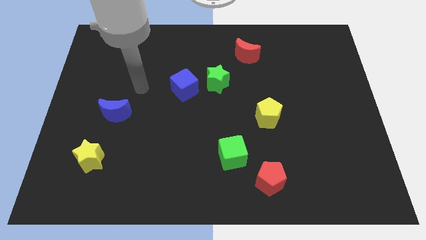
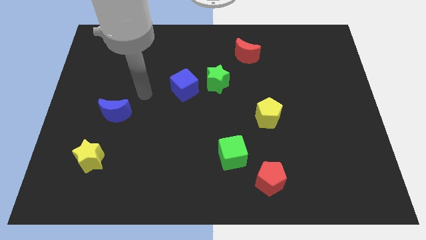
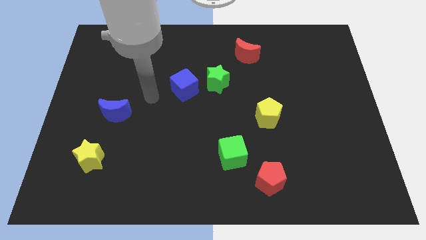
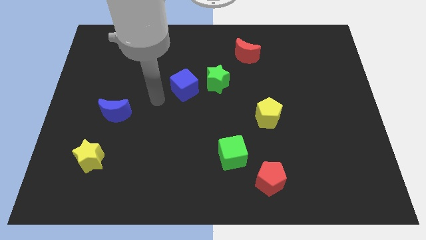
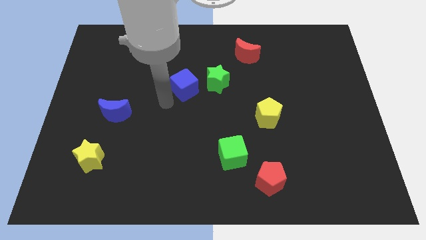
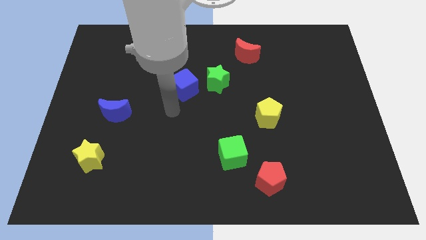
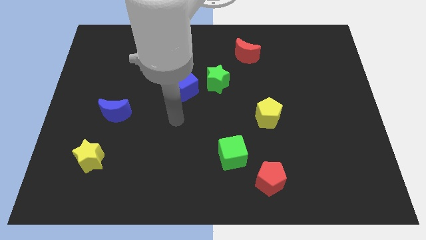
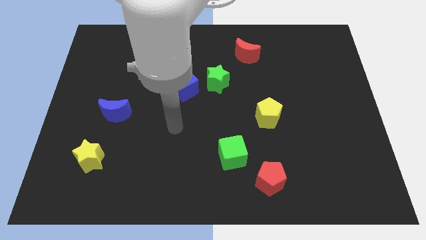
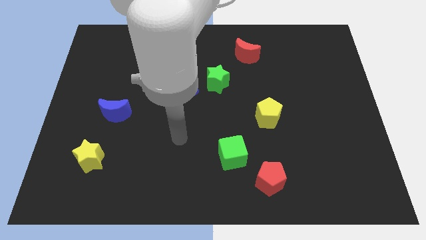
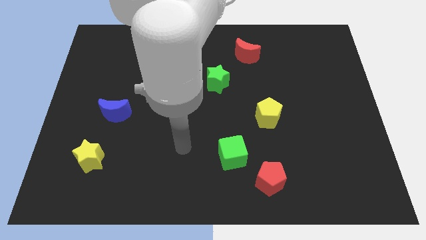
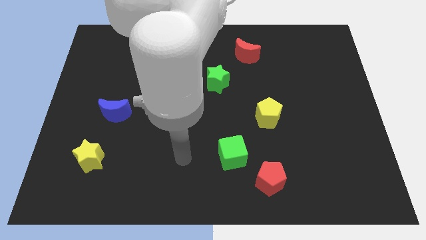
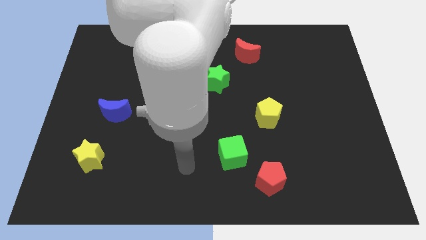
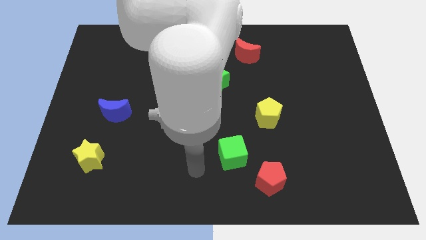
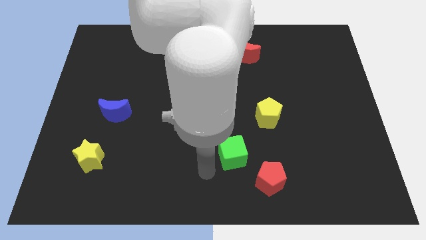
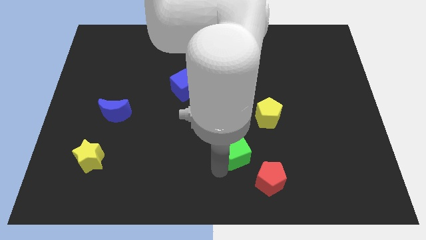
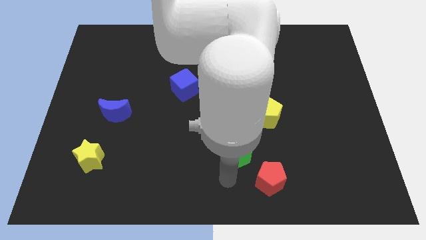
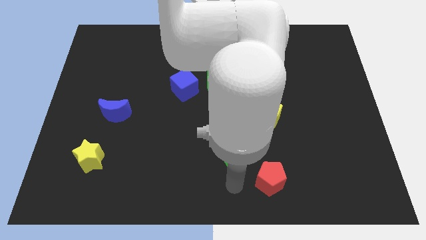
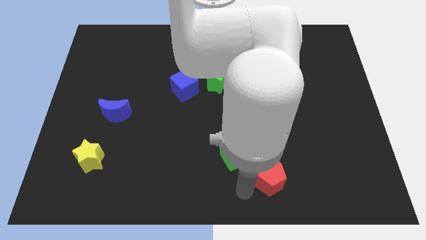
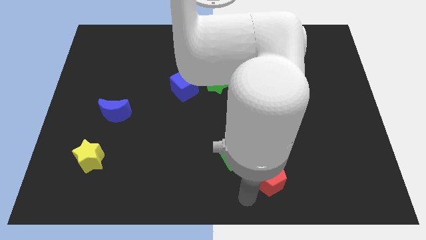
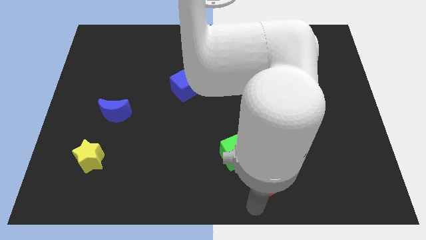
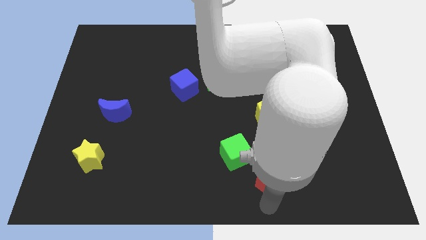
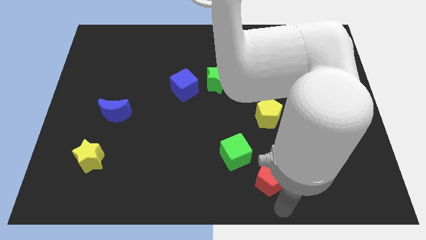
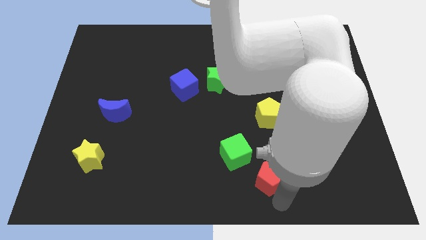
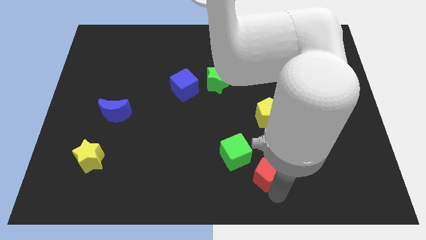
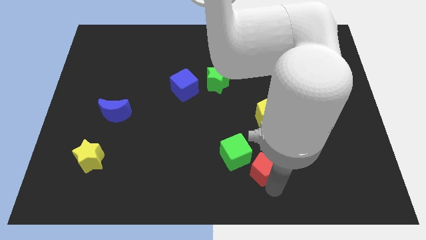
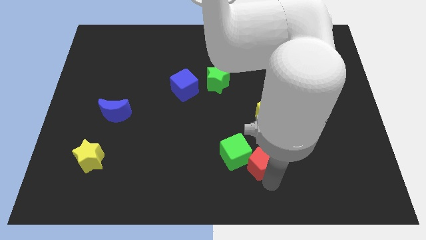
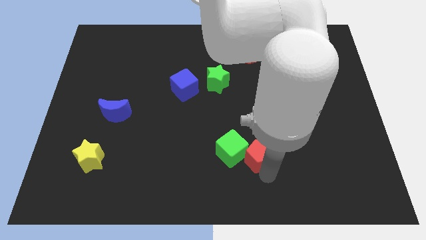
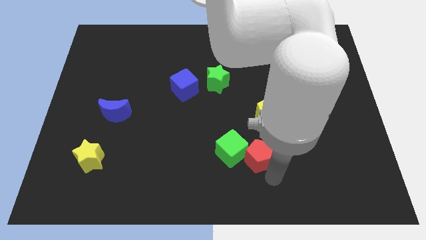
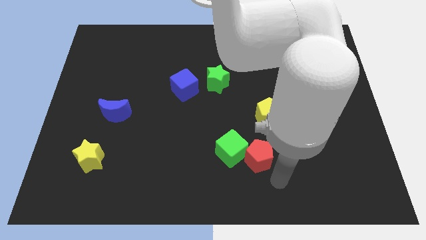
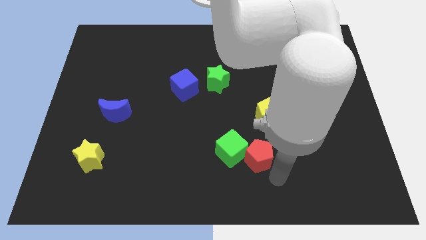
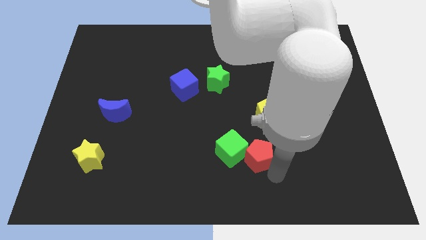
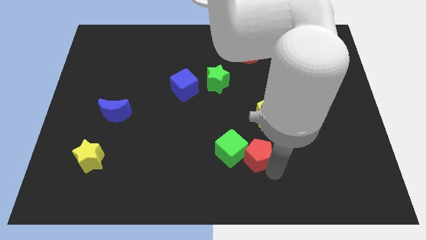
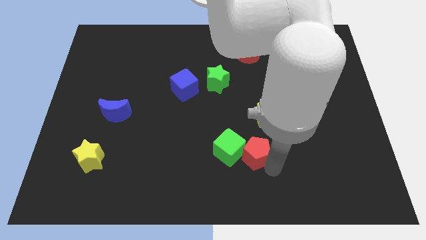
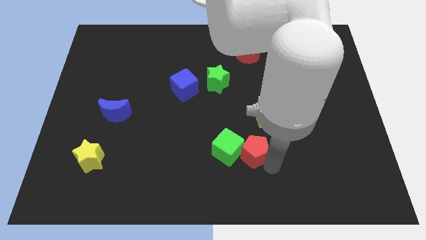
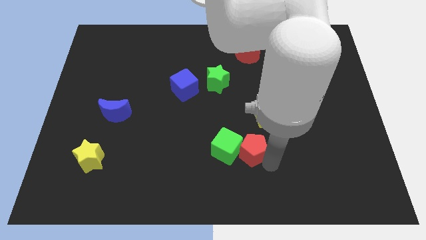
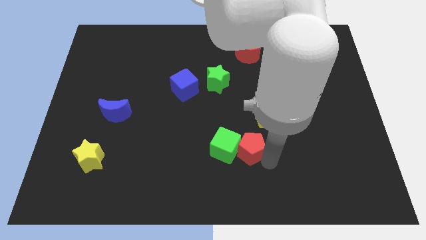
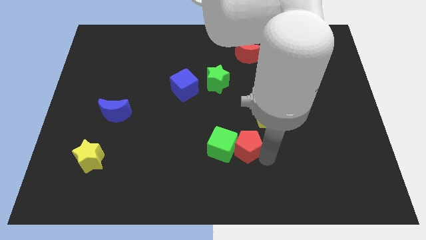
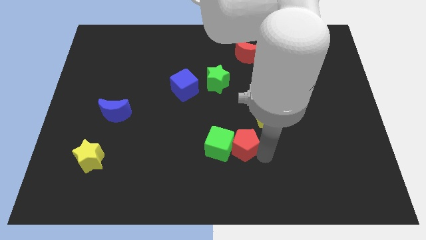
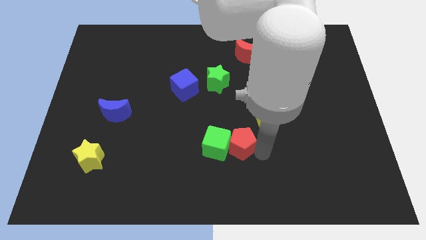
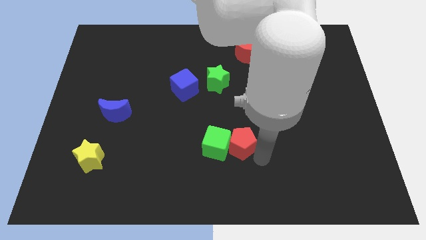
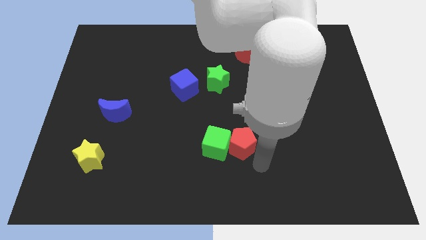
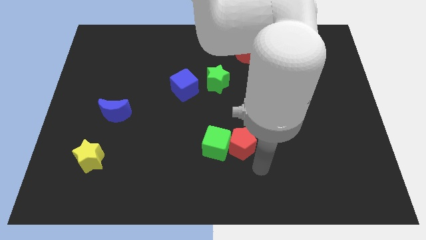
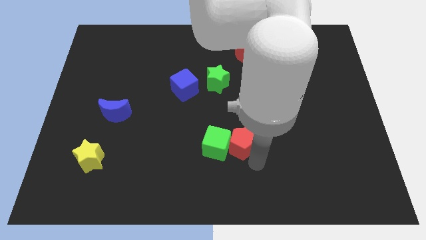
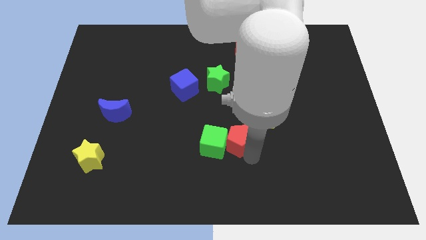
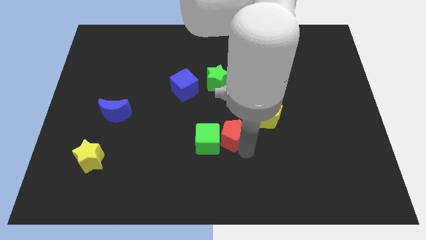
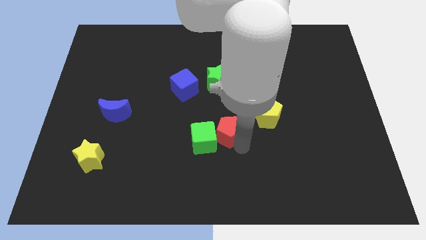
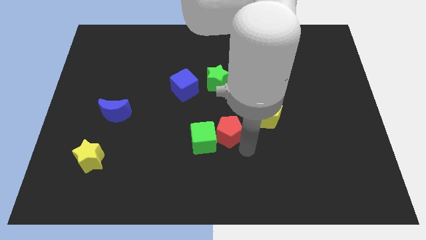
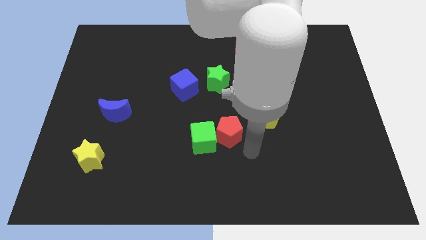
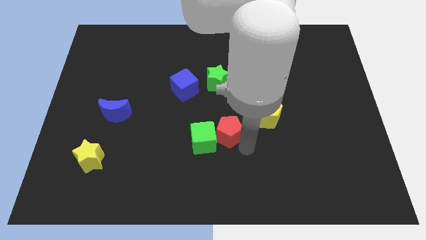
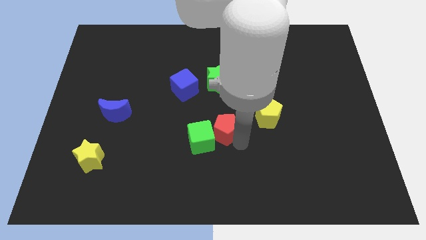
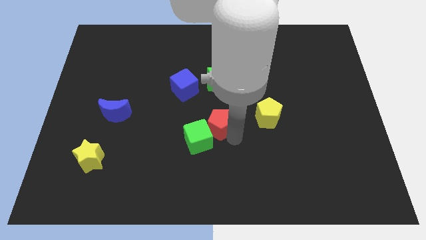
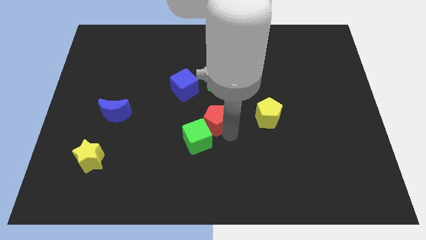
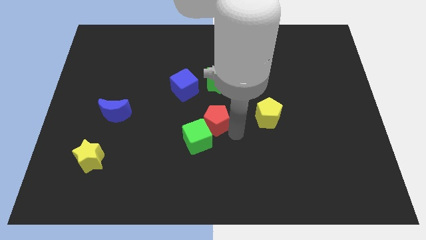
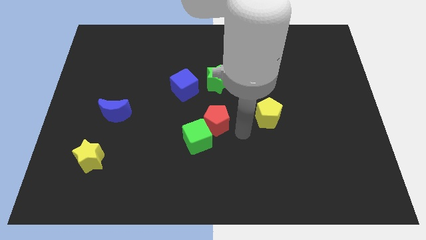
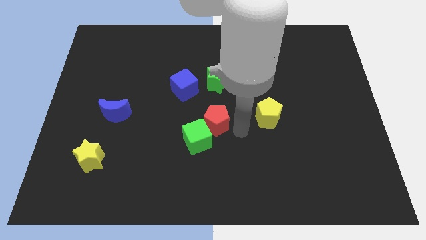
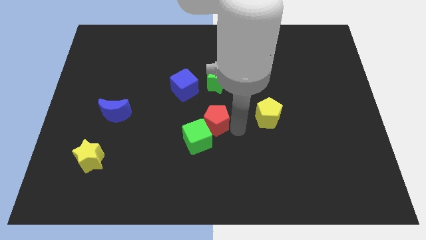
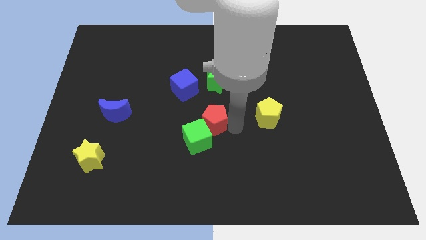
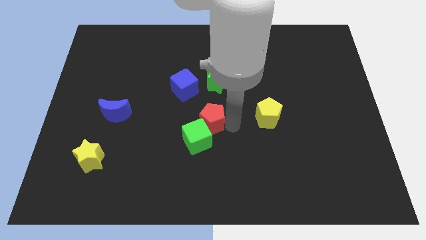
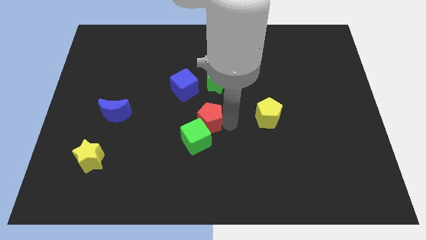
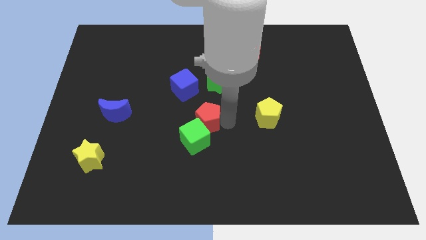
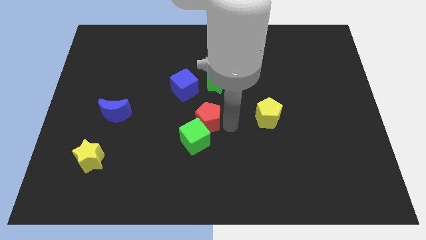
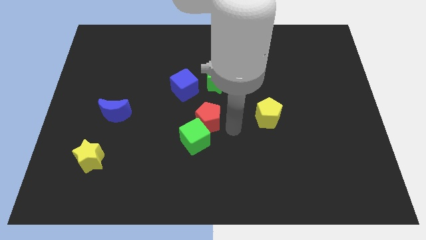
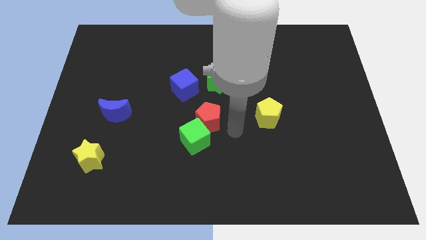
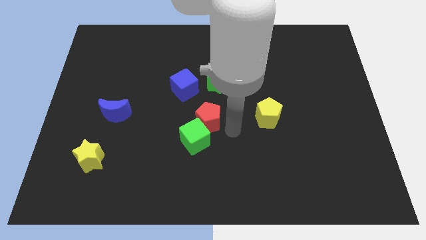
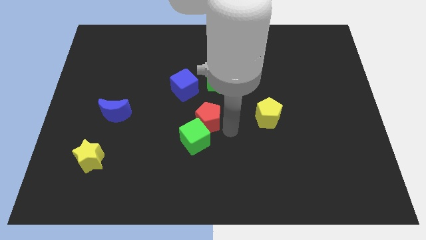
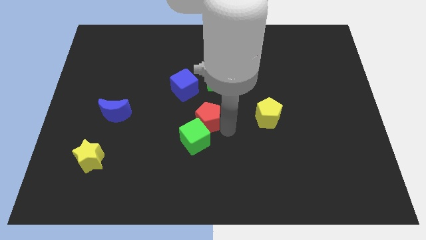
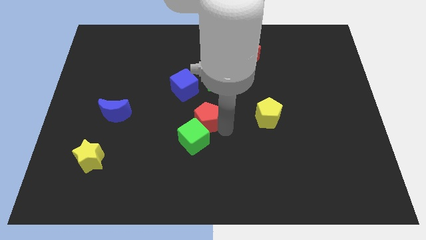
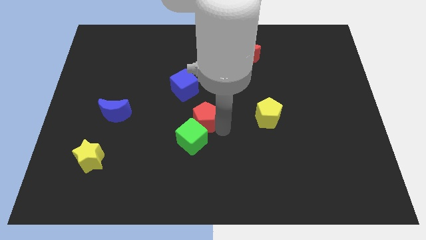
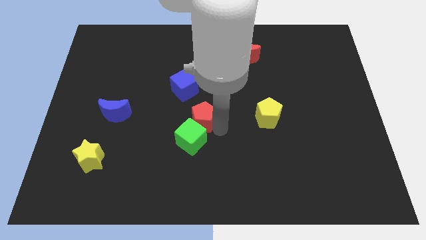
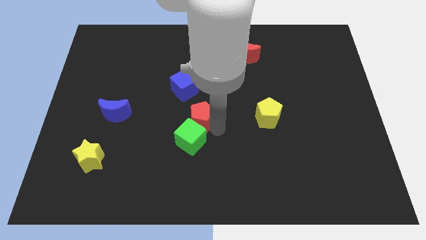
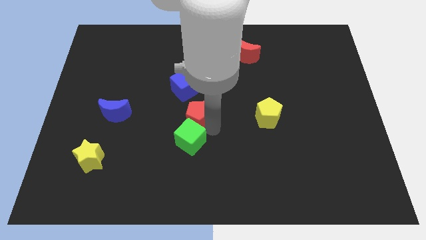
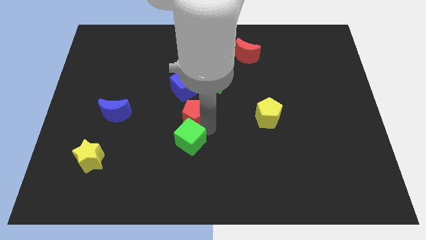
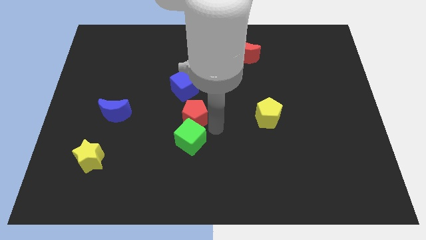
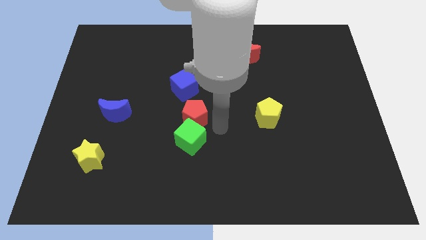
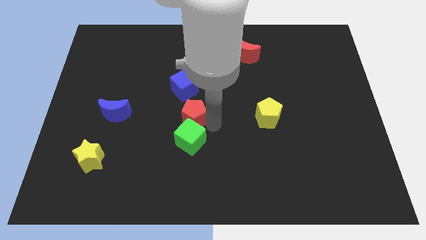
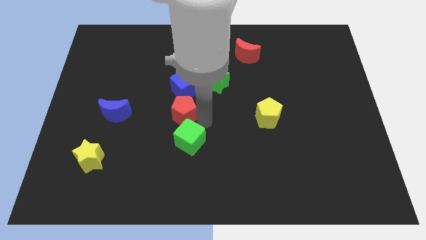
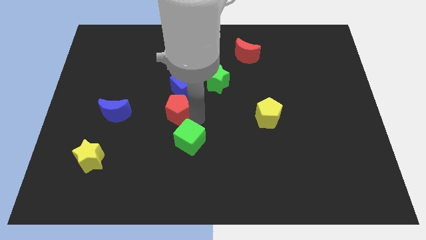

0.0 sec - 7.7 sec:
move the red pentagon to the bottom left side of the blue cube
